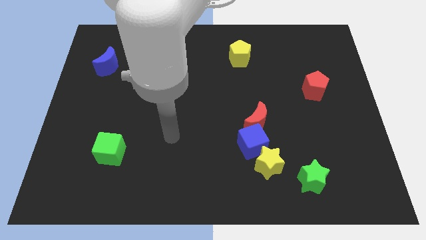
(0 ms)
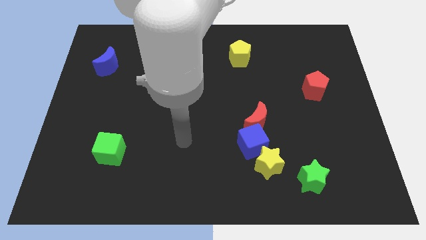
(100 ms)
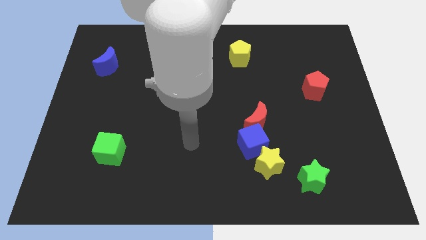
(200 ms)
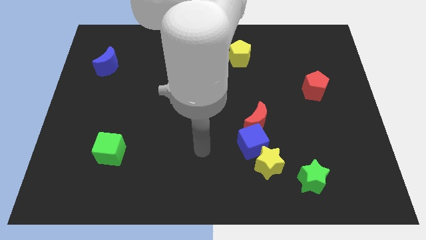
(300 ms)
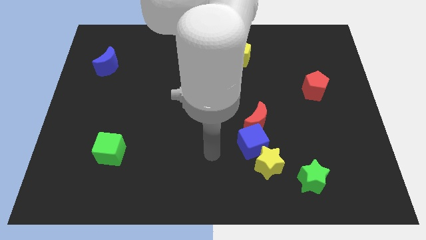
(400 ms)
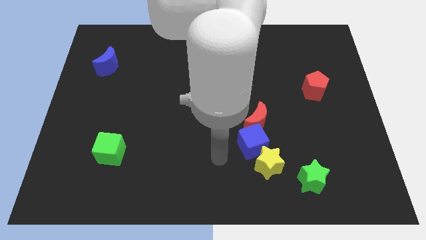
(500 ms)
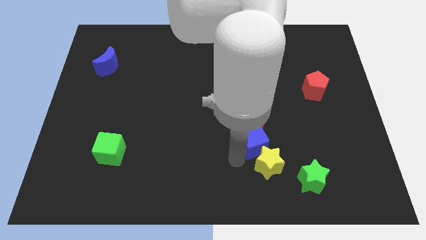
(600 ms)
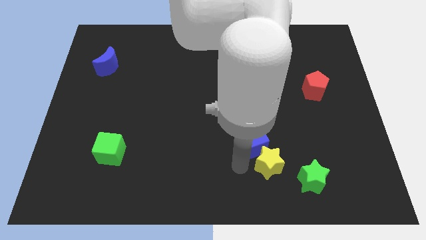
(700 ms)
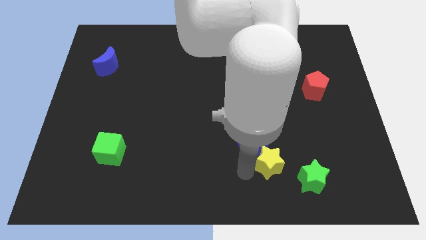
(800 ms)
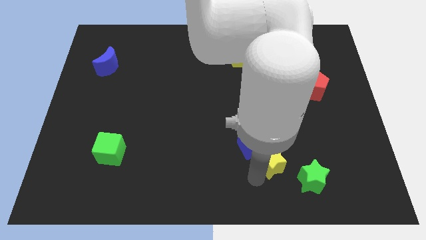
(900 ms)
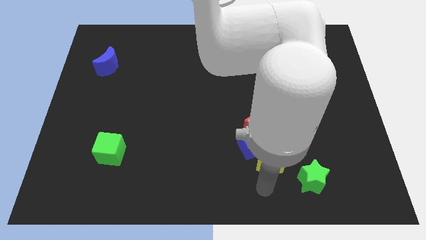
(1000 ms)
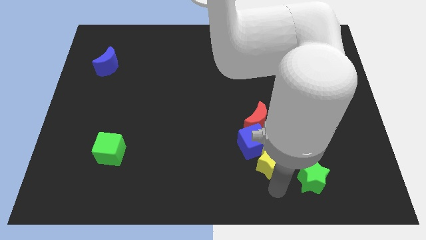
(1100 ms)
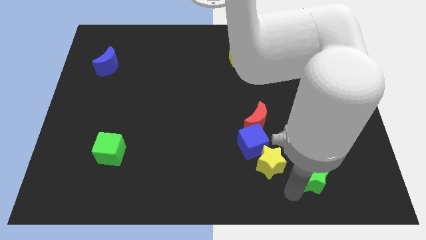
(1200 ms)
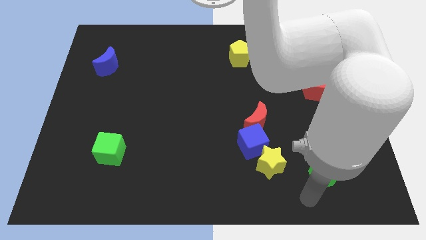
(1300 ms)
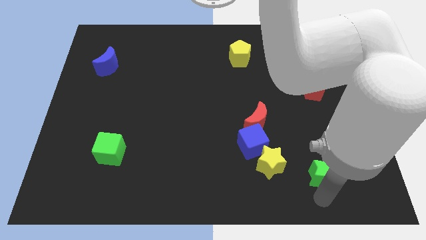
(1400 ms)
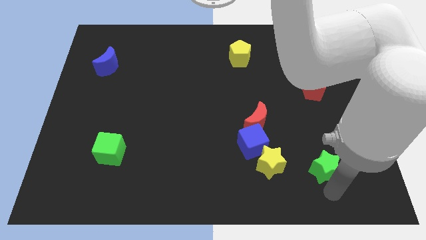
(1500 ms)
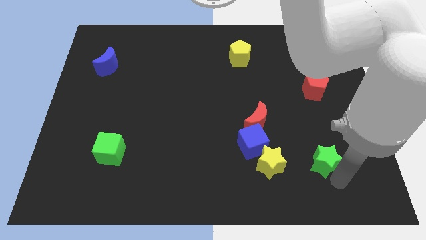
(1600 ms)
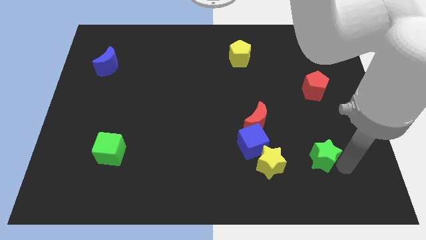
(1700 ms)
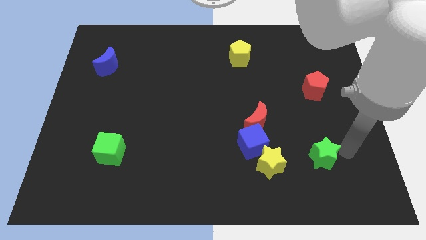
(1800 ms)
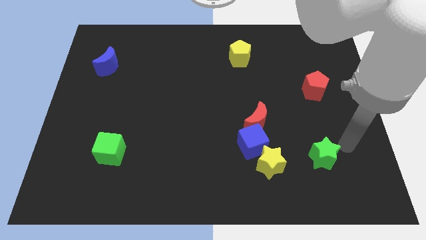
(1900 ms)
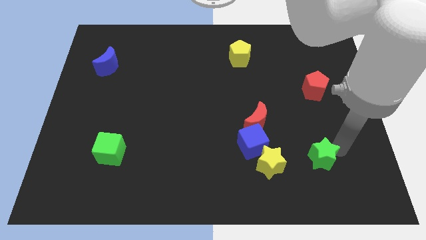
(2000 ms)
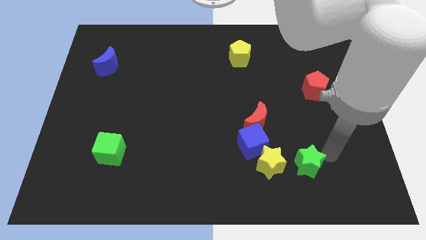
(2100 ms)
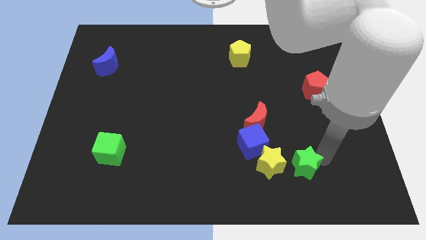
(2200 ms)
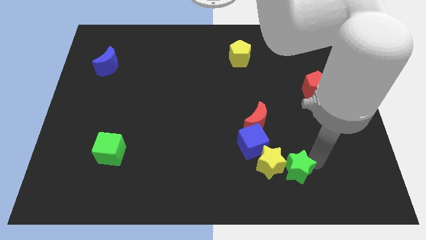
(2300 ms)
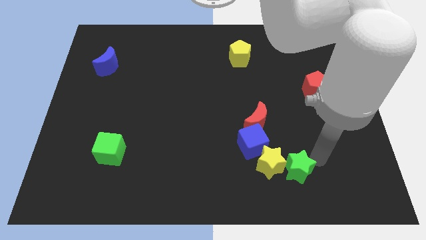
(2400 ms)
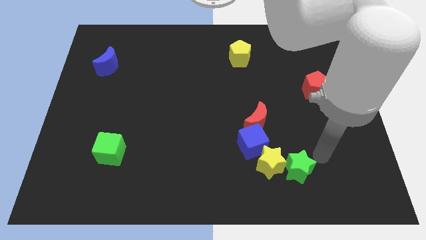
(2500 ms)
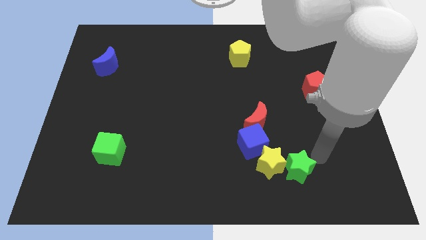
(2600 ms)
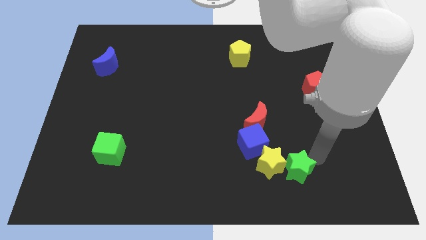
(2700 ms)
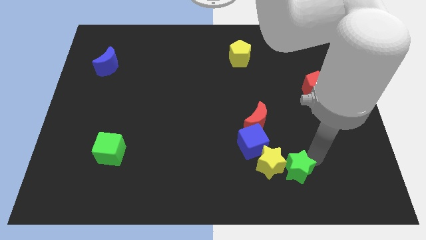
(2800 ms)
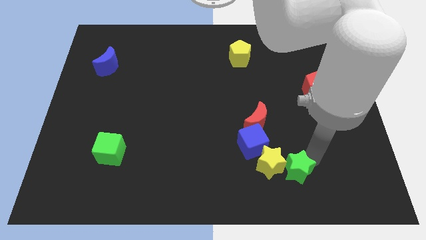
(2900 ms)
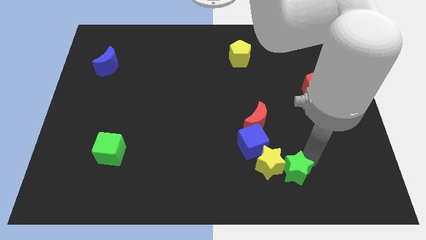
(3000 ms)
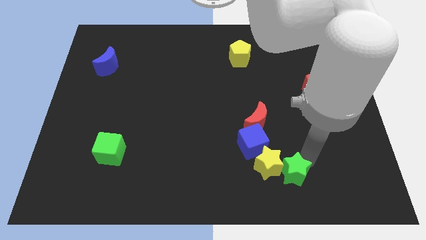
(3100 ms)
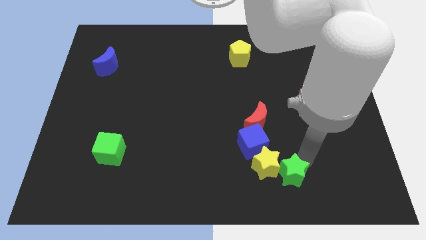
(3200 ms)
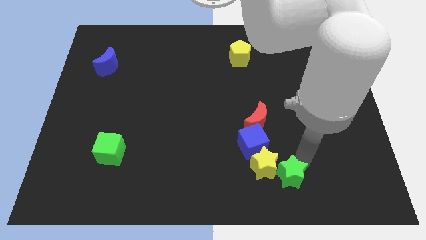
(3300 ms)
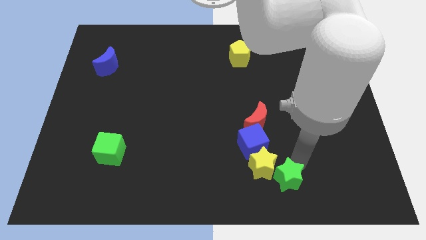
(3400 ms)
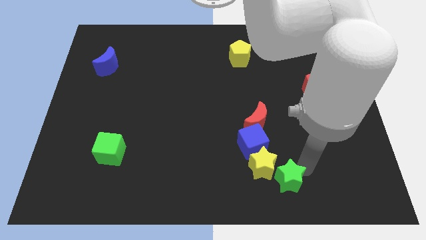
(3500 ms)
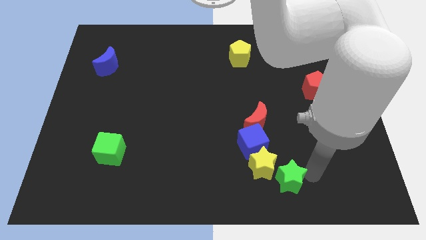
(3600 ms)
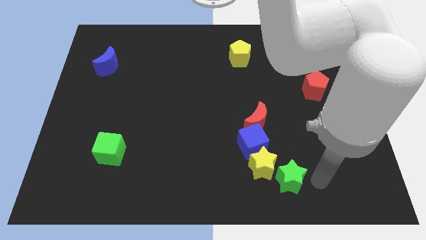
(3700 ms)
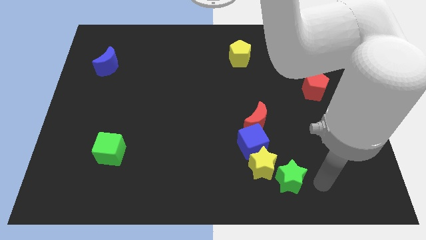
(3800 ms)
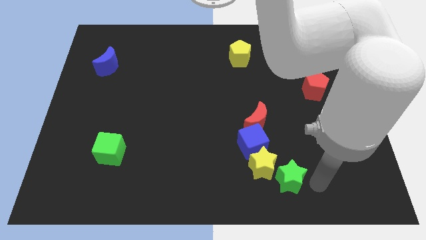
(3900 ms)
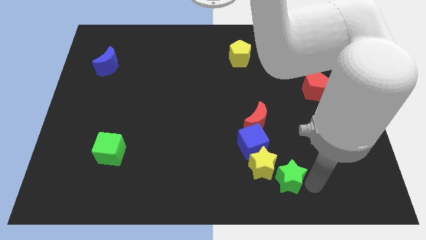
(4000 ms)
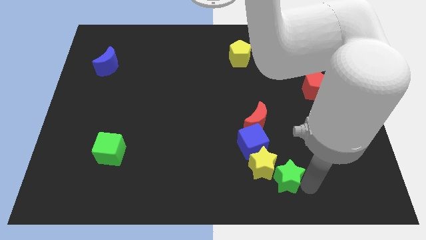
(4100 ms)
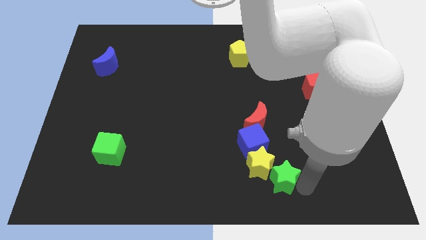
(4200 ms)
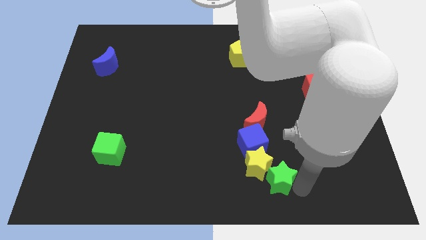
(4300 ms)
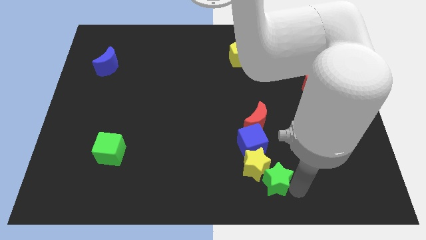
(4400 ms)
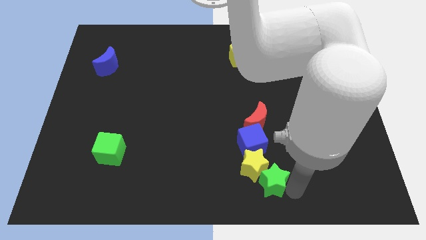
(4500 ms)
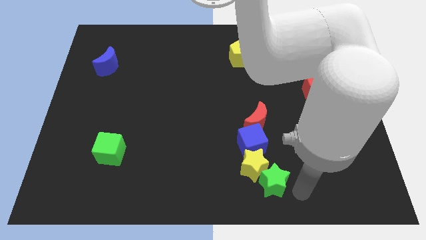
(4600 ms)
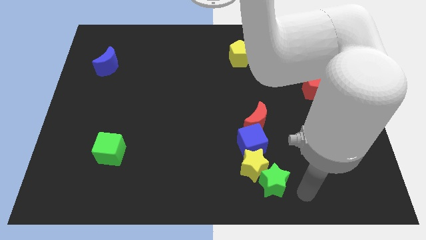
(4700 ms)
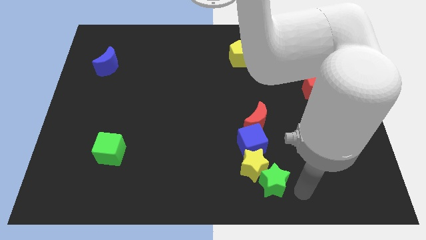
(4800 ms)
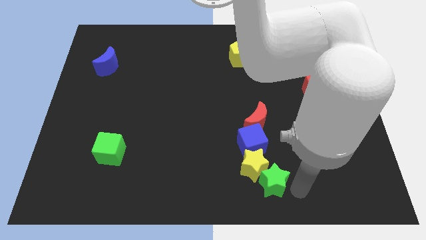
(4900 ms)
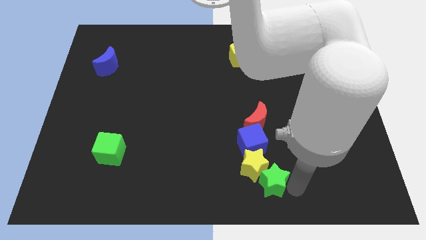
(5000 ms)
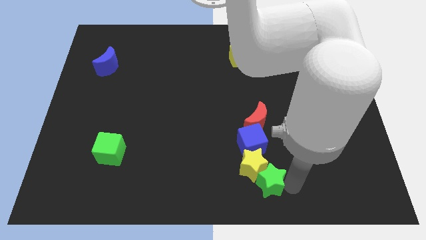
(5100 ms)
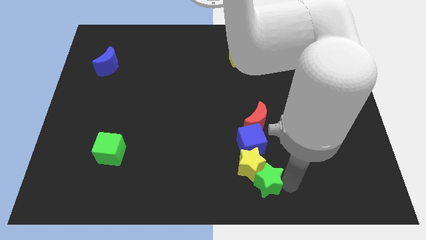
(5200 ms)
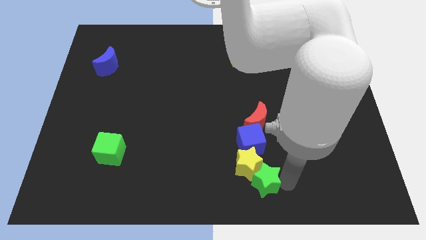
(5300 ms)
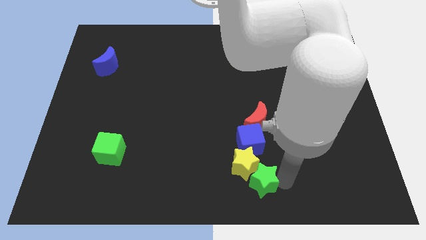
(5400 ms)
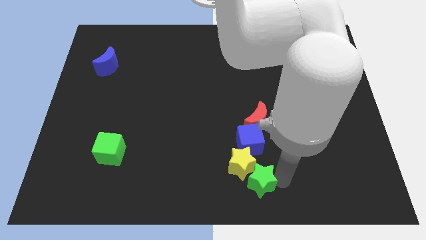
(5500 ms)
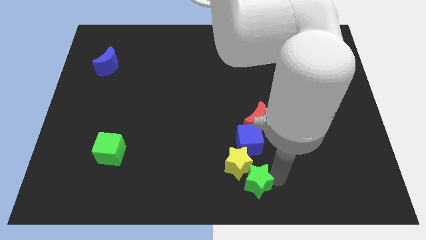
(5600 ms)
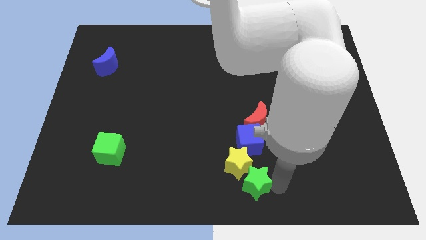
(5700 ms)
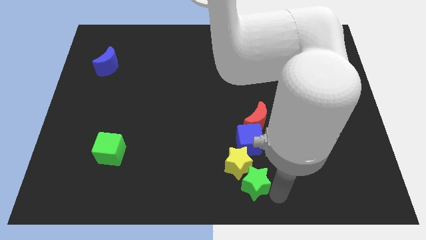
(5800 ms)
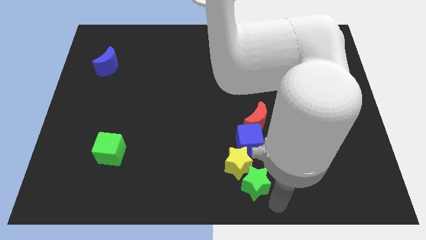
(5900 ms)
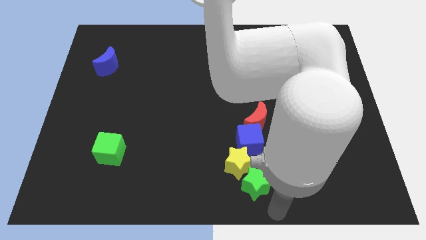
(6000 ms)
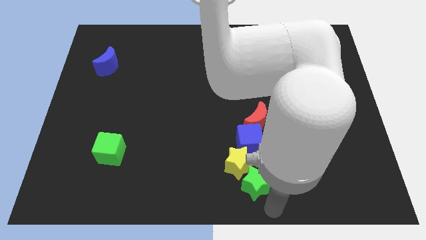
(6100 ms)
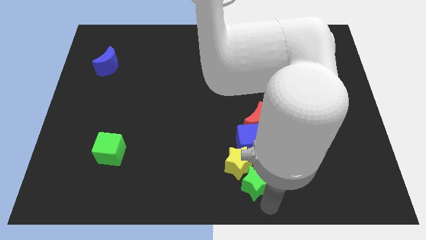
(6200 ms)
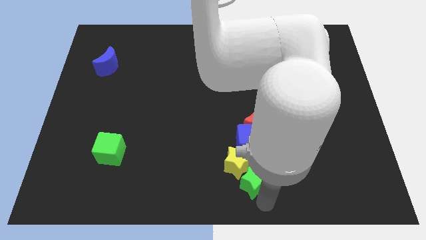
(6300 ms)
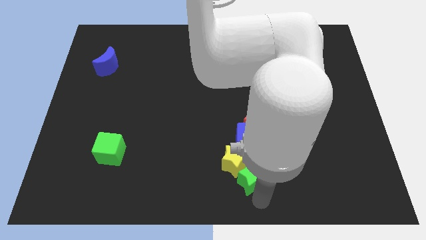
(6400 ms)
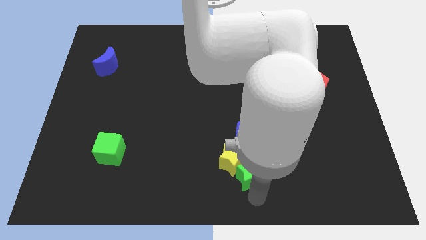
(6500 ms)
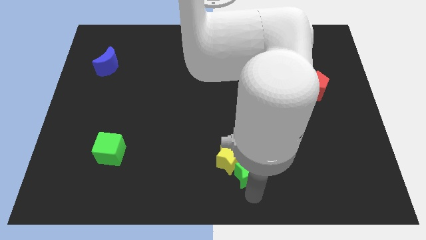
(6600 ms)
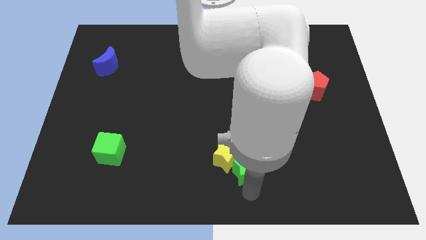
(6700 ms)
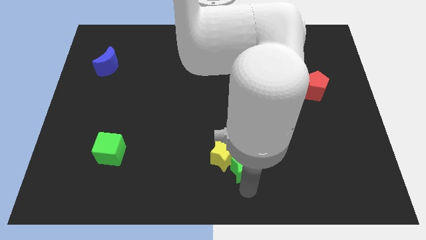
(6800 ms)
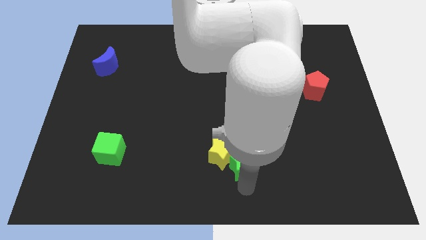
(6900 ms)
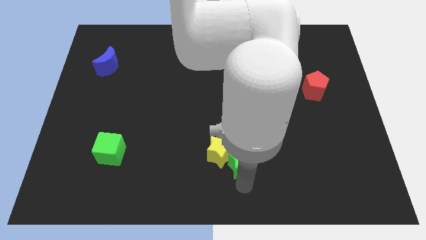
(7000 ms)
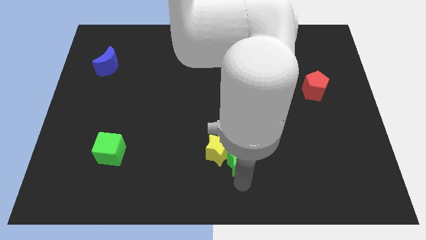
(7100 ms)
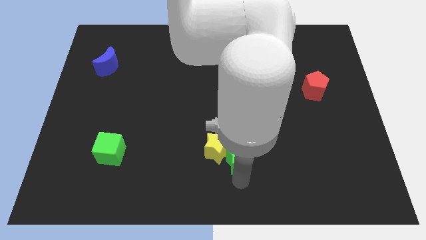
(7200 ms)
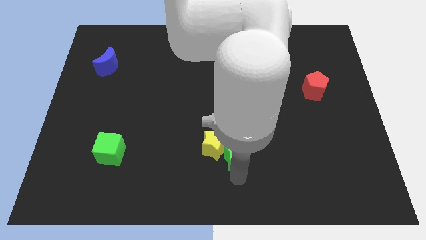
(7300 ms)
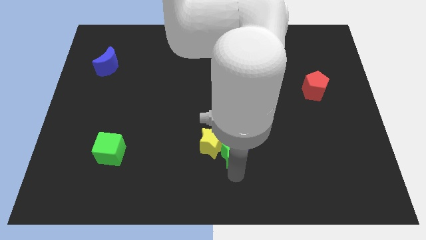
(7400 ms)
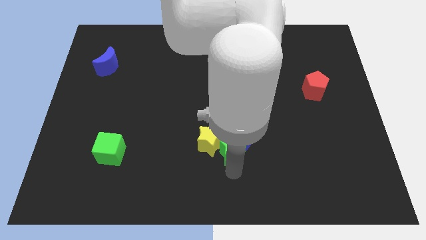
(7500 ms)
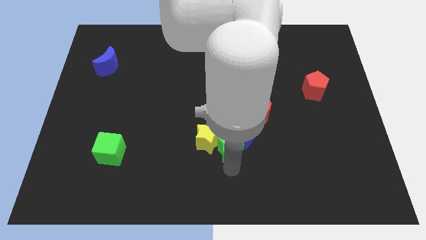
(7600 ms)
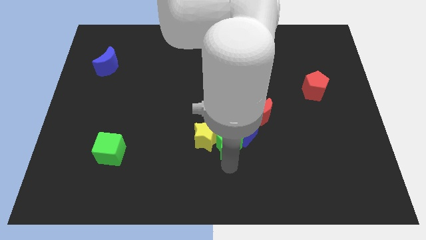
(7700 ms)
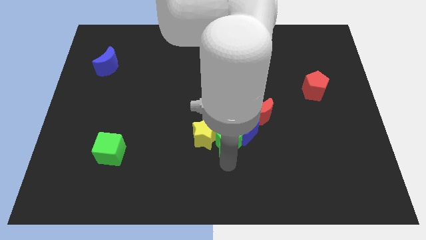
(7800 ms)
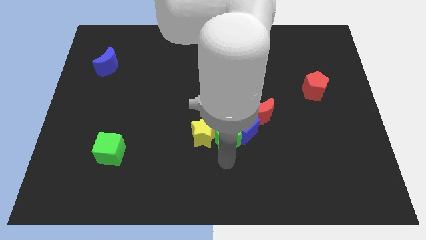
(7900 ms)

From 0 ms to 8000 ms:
put the green star to the center of the board
